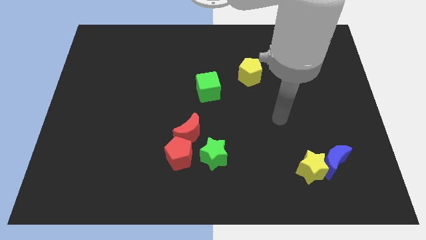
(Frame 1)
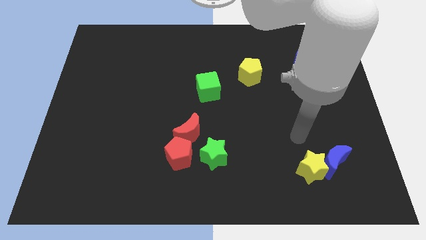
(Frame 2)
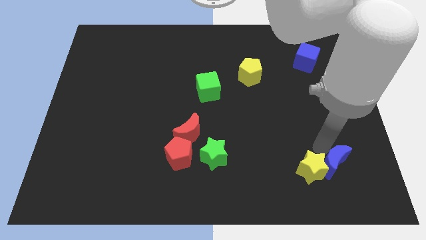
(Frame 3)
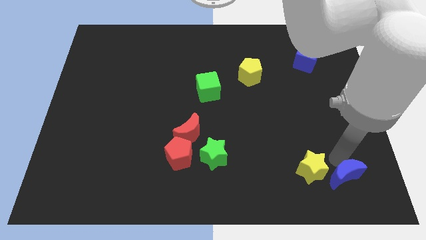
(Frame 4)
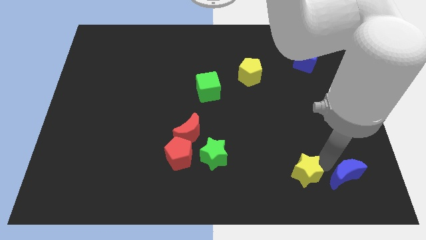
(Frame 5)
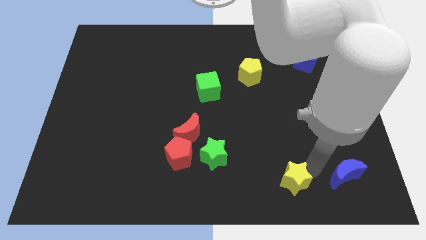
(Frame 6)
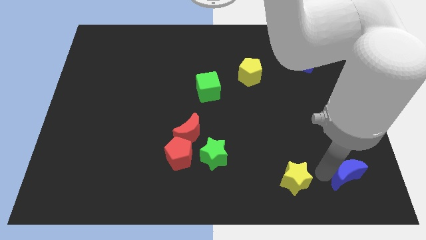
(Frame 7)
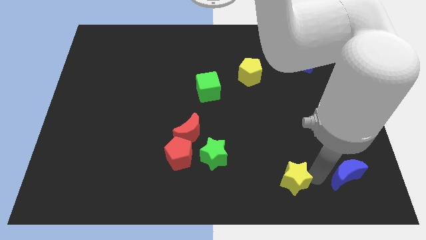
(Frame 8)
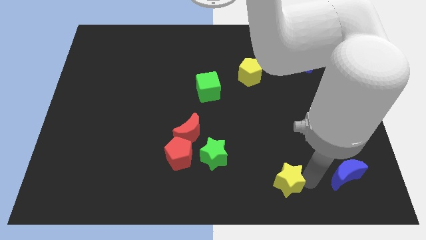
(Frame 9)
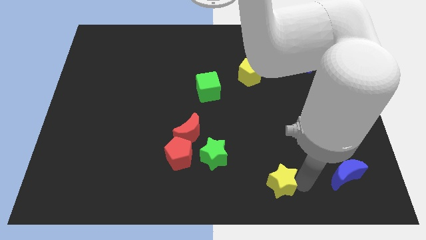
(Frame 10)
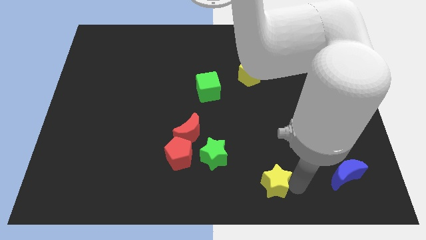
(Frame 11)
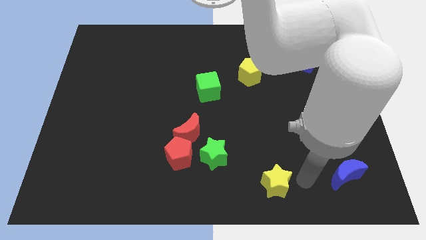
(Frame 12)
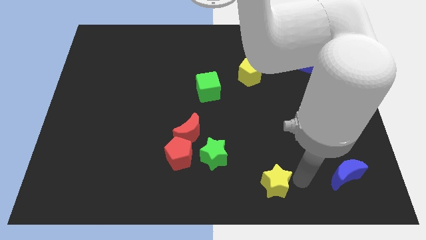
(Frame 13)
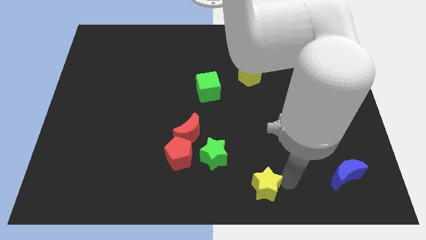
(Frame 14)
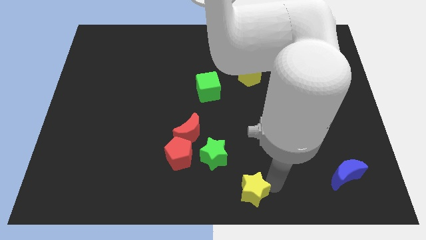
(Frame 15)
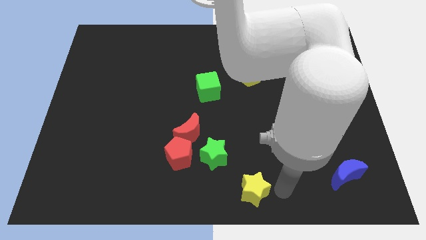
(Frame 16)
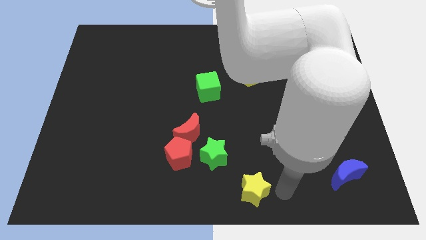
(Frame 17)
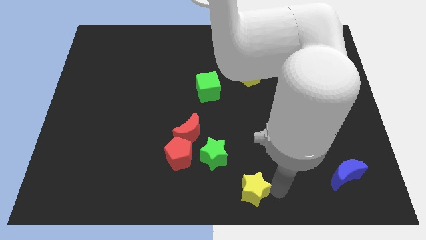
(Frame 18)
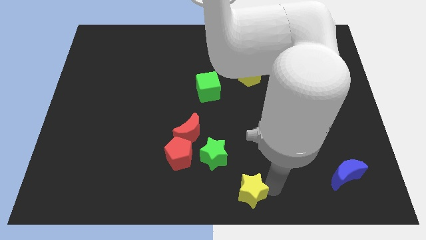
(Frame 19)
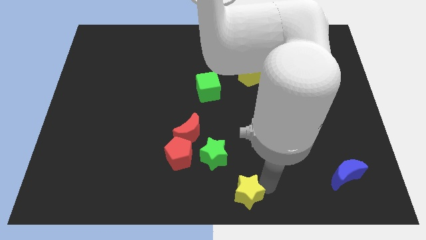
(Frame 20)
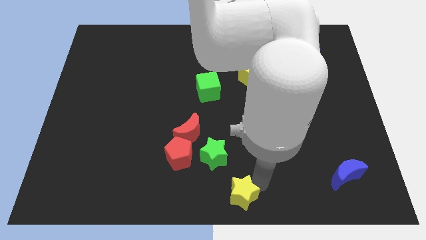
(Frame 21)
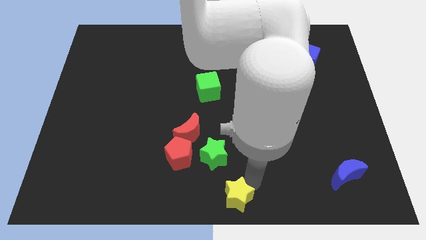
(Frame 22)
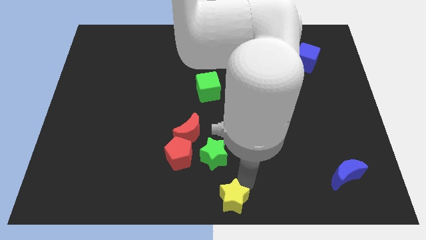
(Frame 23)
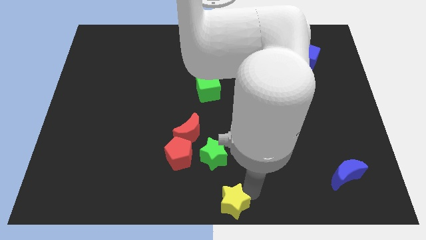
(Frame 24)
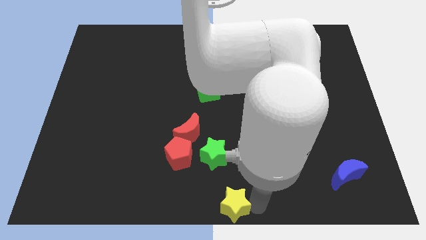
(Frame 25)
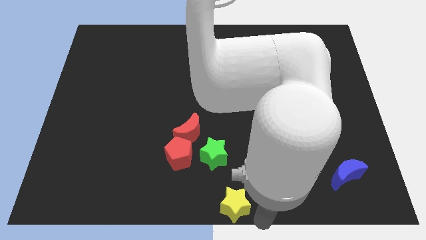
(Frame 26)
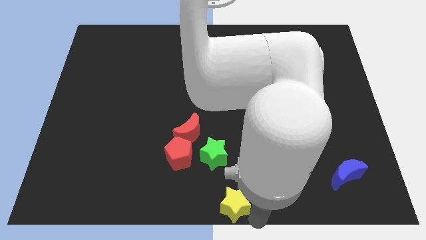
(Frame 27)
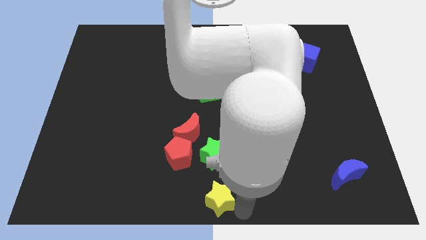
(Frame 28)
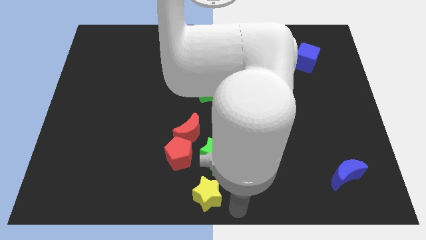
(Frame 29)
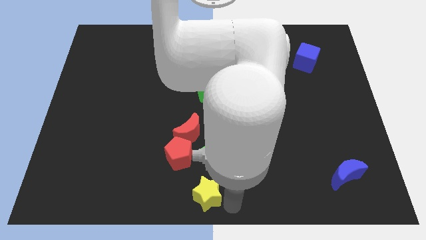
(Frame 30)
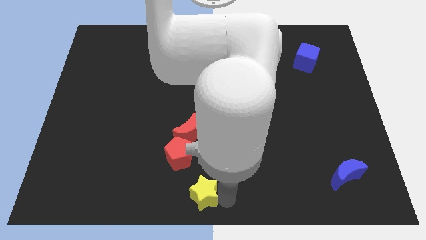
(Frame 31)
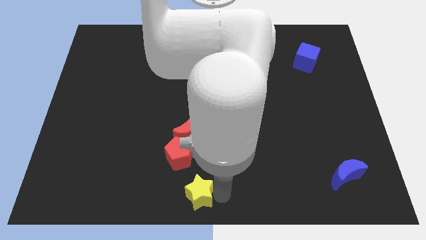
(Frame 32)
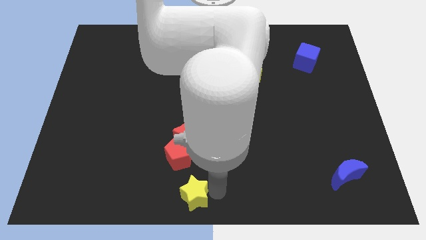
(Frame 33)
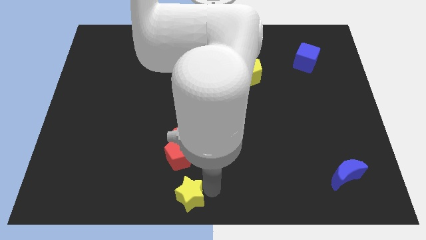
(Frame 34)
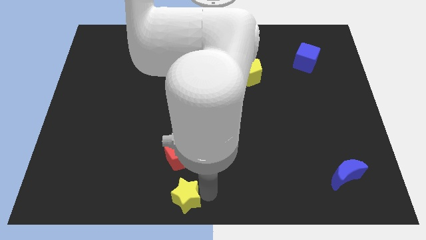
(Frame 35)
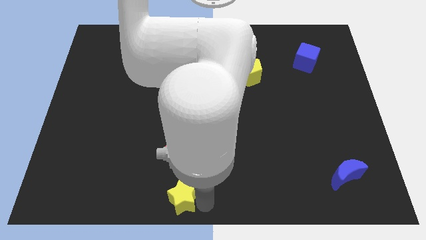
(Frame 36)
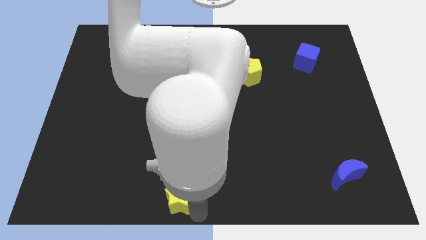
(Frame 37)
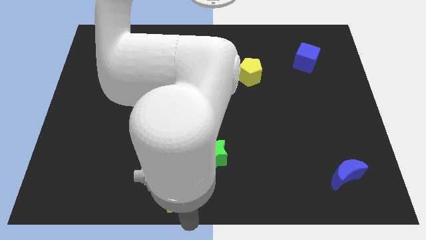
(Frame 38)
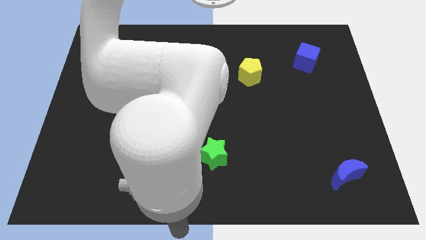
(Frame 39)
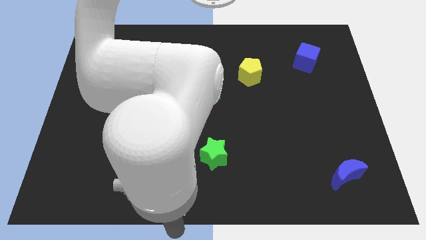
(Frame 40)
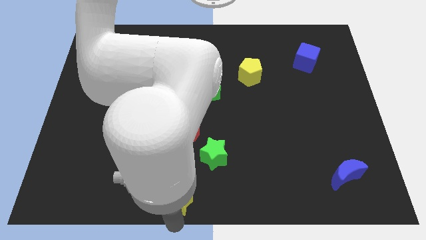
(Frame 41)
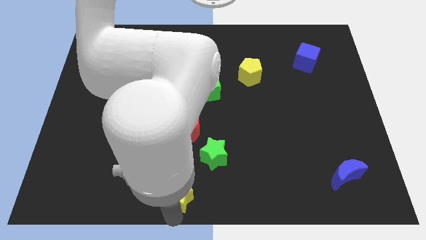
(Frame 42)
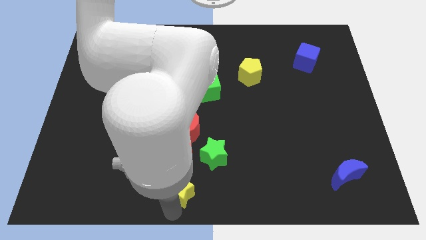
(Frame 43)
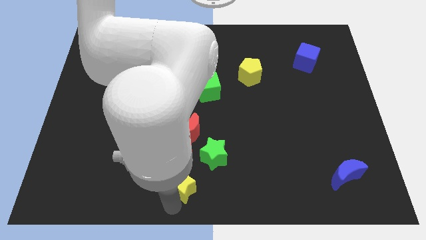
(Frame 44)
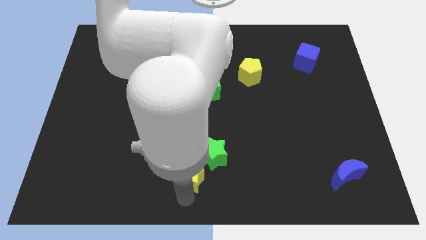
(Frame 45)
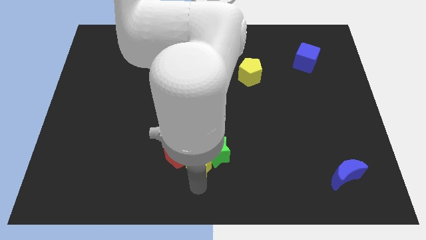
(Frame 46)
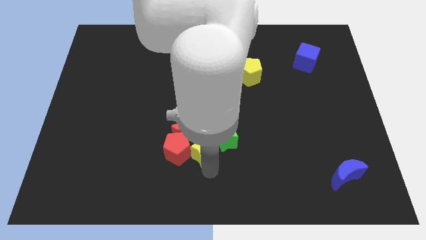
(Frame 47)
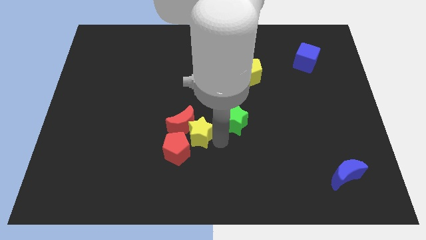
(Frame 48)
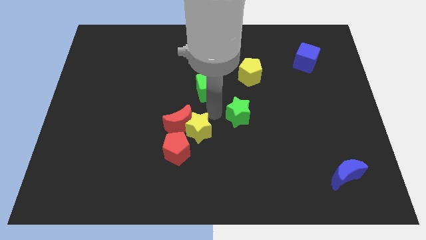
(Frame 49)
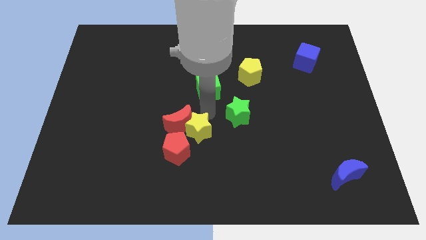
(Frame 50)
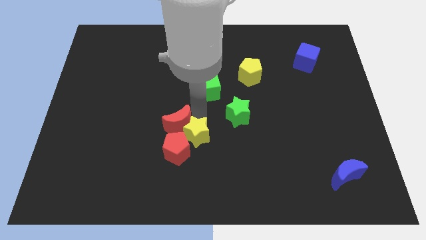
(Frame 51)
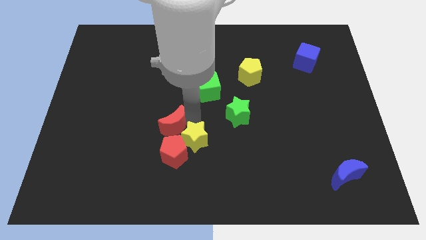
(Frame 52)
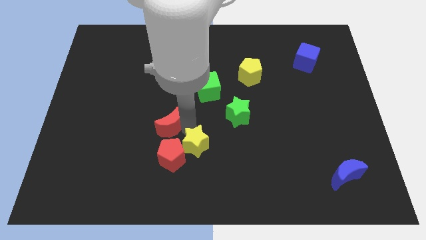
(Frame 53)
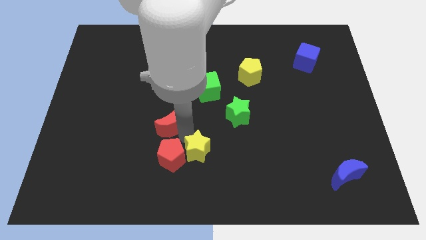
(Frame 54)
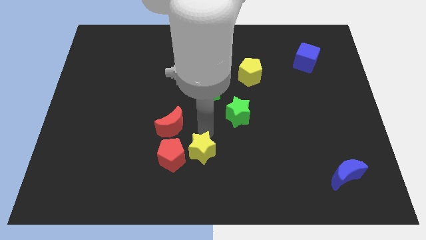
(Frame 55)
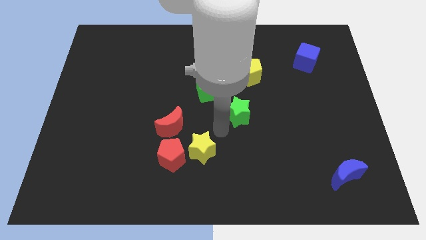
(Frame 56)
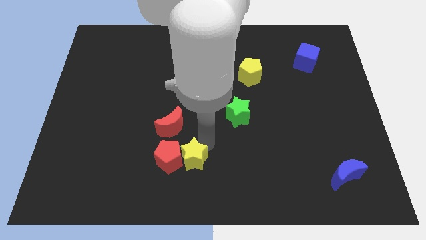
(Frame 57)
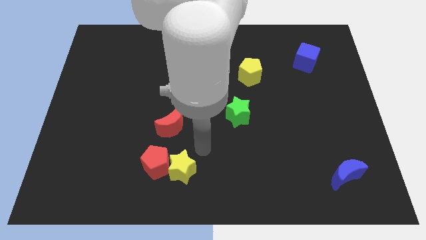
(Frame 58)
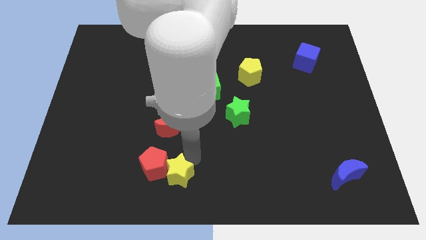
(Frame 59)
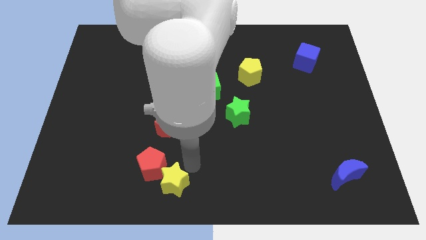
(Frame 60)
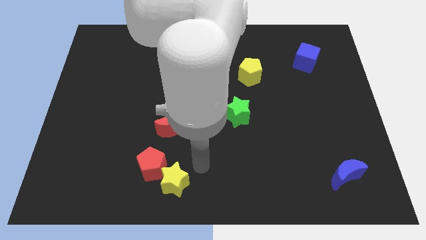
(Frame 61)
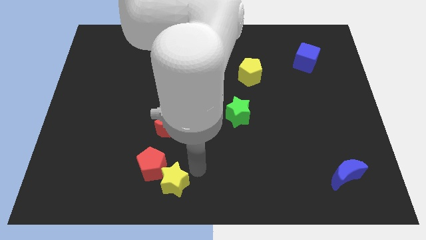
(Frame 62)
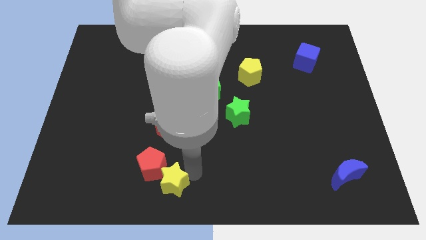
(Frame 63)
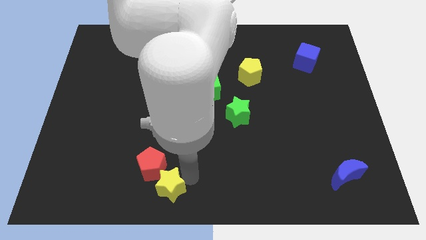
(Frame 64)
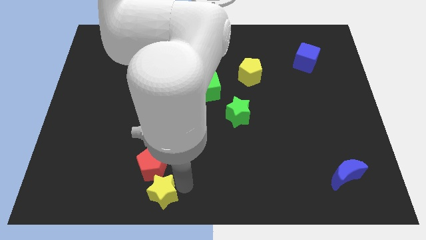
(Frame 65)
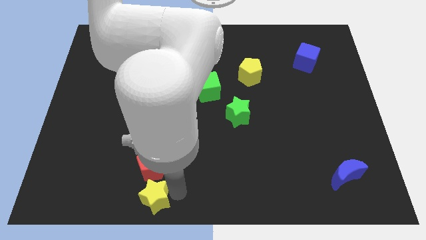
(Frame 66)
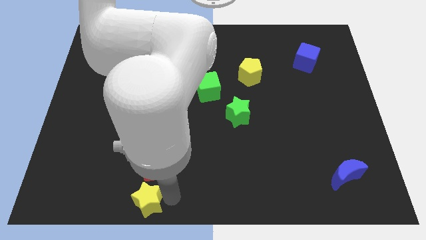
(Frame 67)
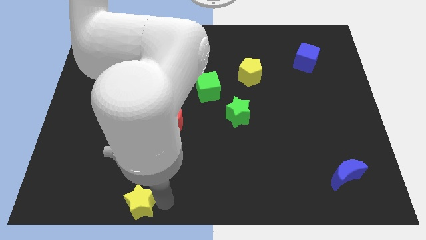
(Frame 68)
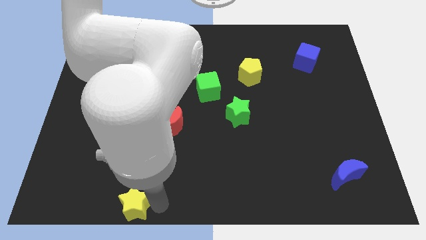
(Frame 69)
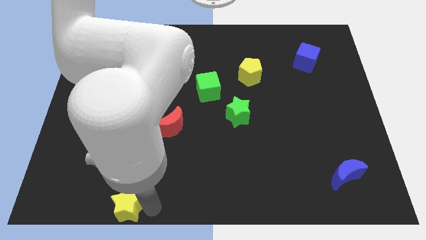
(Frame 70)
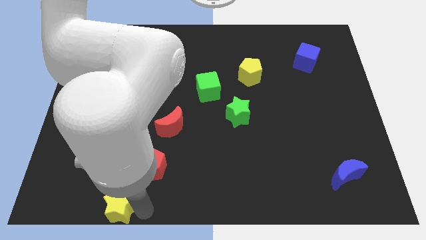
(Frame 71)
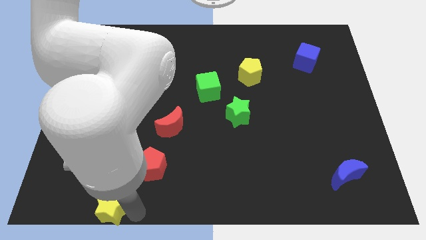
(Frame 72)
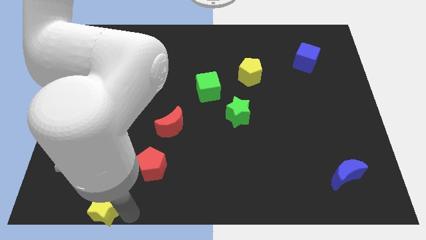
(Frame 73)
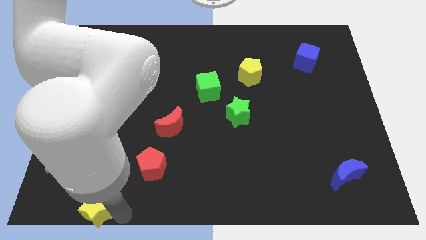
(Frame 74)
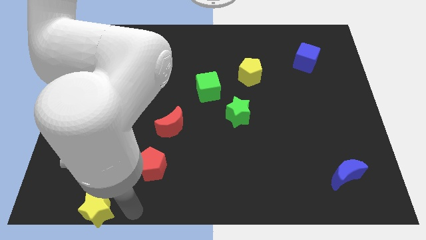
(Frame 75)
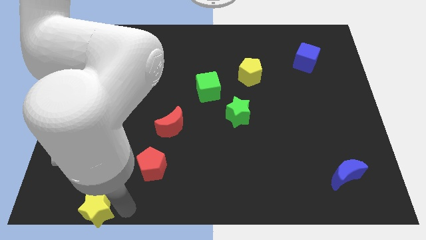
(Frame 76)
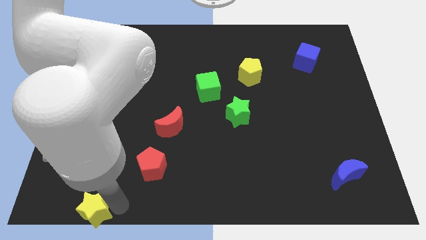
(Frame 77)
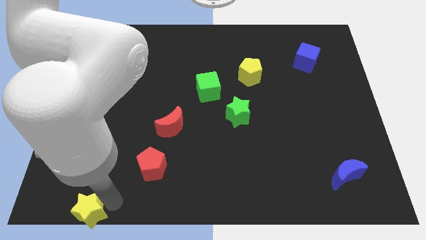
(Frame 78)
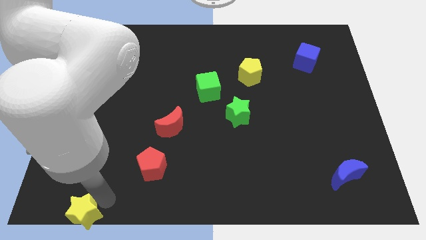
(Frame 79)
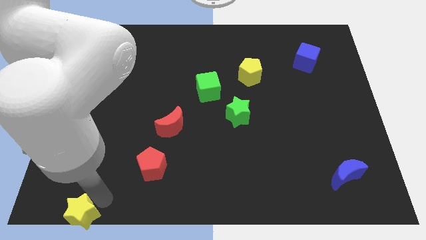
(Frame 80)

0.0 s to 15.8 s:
push the yellow star to the bottom left
